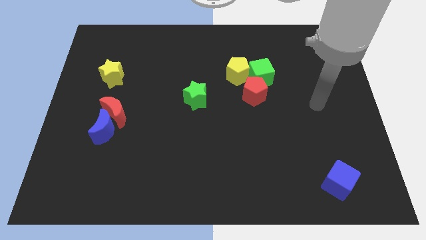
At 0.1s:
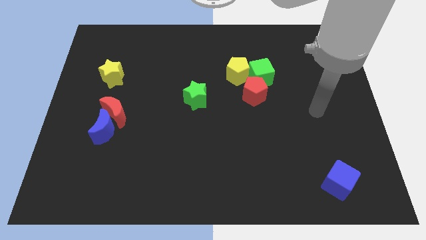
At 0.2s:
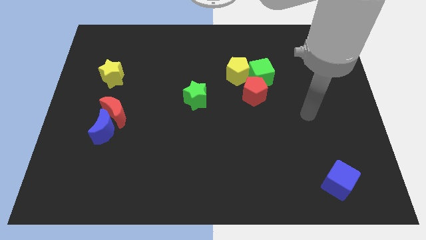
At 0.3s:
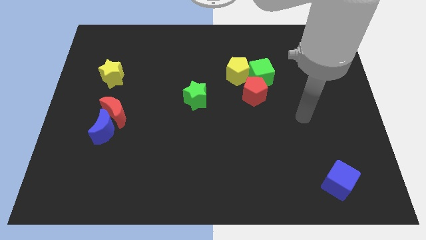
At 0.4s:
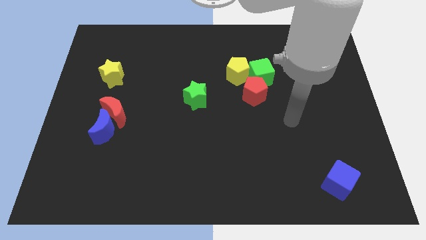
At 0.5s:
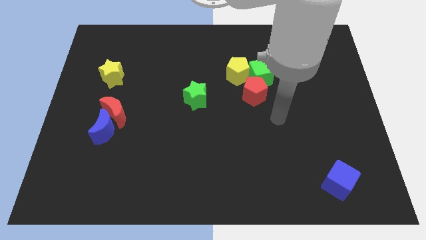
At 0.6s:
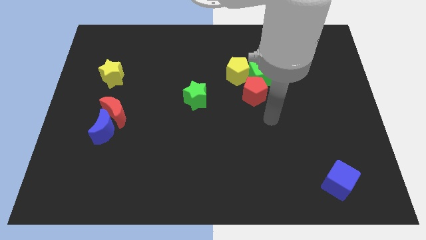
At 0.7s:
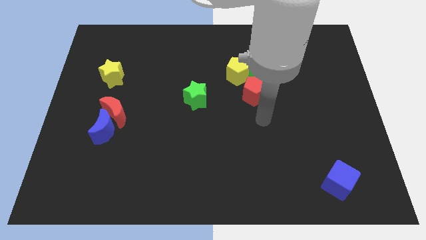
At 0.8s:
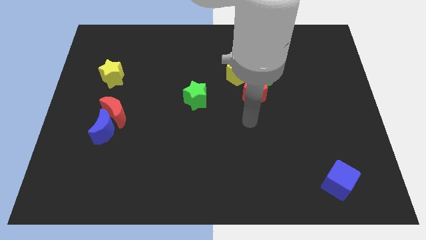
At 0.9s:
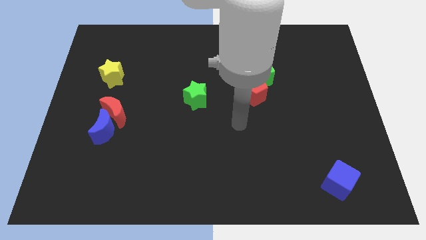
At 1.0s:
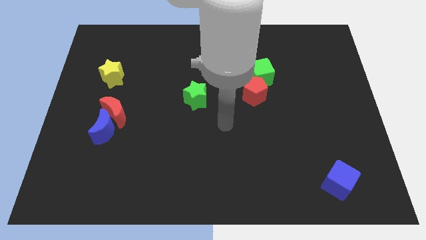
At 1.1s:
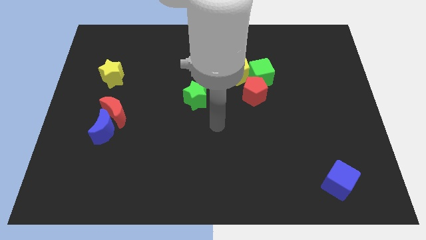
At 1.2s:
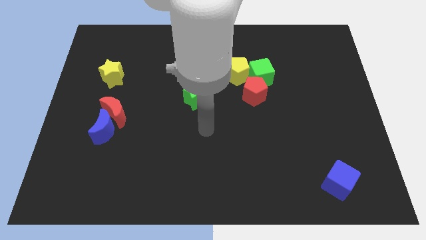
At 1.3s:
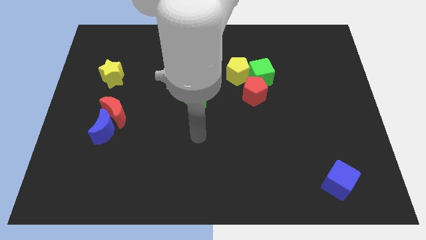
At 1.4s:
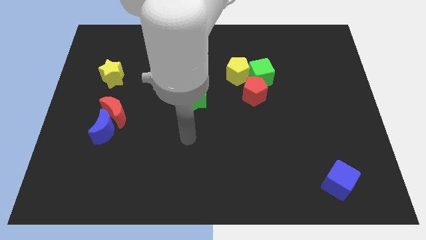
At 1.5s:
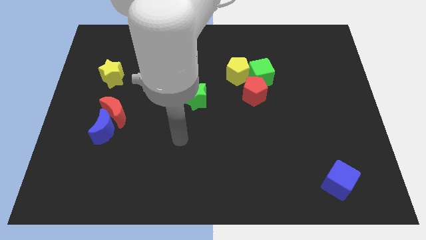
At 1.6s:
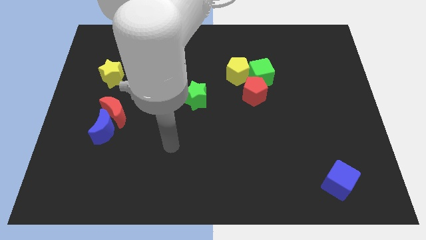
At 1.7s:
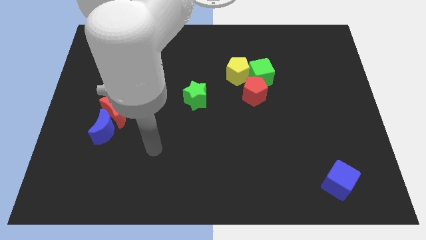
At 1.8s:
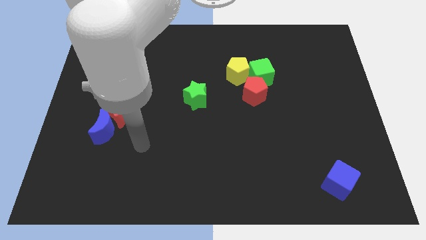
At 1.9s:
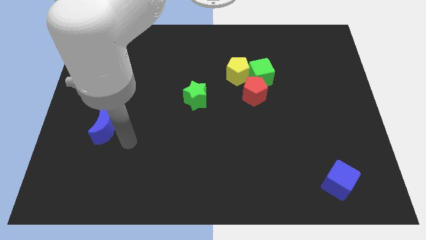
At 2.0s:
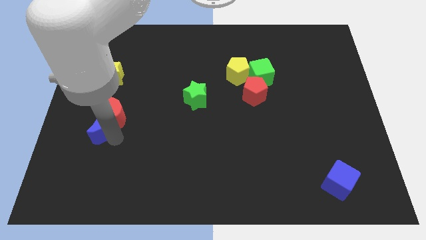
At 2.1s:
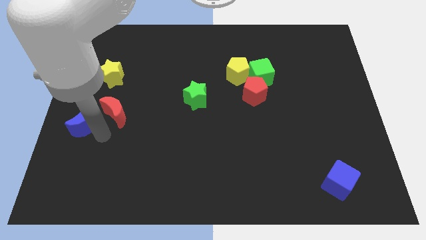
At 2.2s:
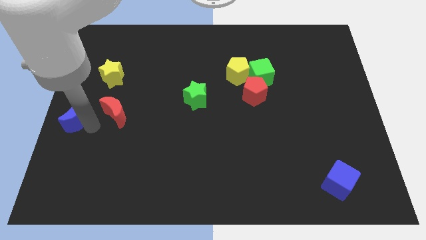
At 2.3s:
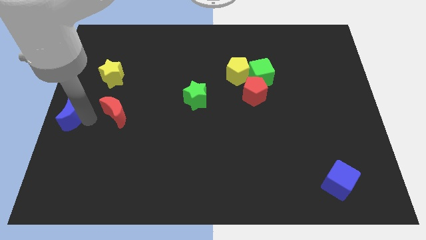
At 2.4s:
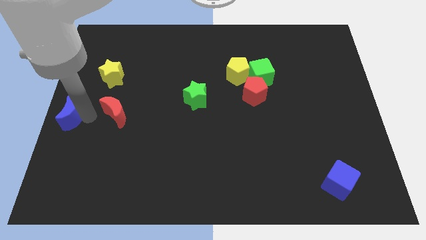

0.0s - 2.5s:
move the red moon away from the blue moon

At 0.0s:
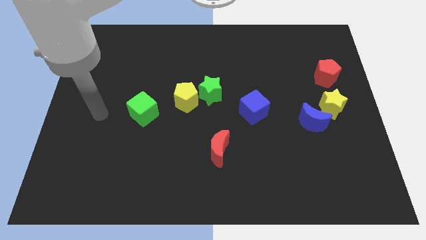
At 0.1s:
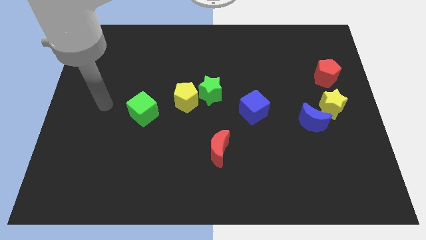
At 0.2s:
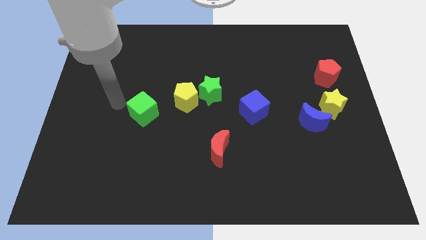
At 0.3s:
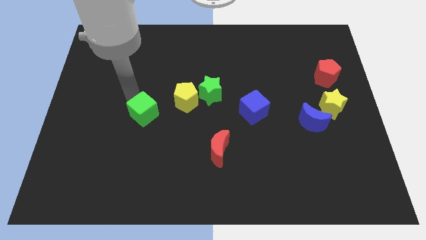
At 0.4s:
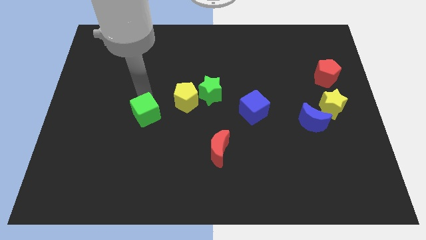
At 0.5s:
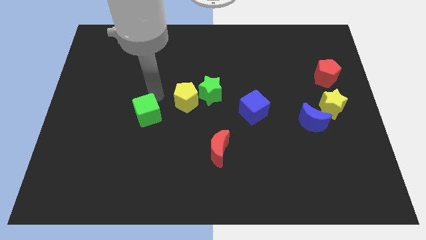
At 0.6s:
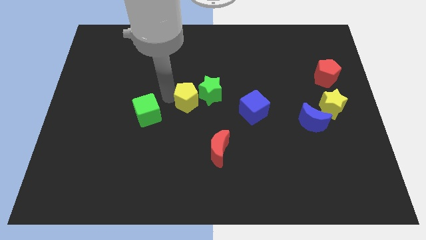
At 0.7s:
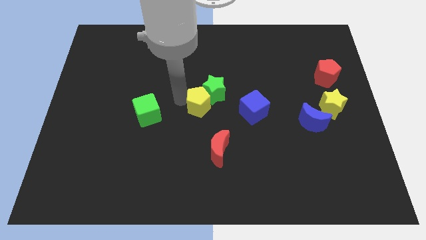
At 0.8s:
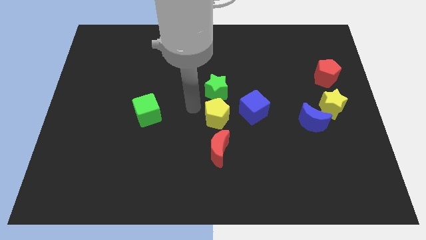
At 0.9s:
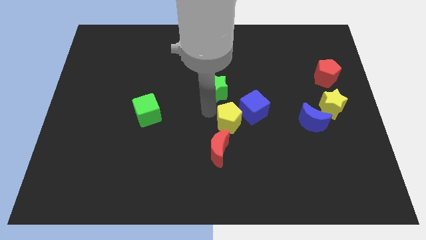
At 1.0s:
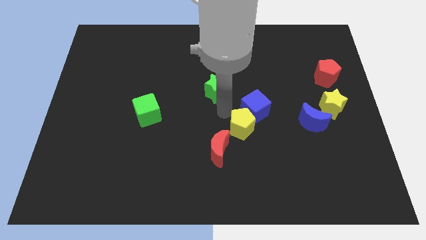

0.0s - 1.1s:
move the green star away from the yellow pentagon

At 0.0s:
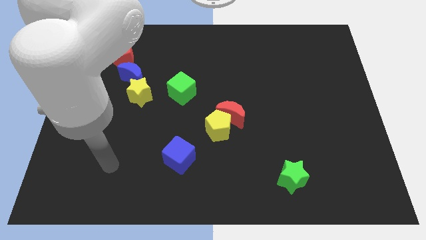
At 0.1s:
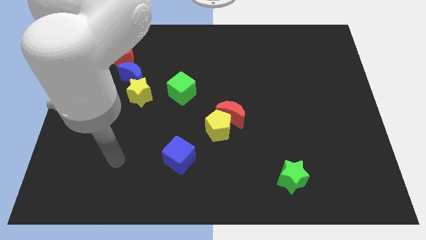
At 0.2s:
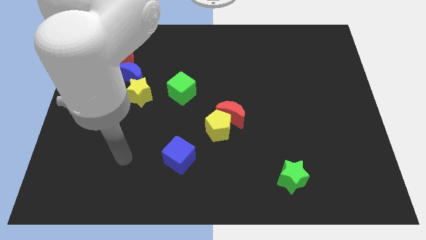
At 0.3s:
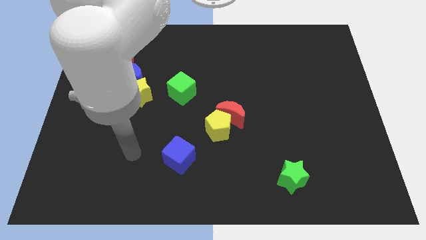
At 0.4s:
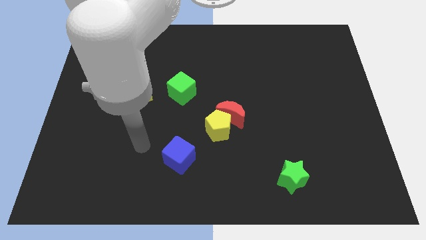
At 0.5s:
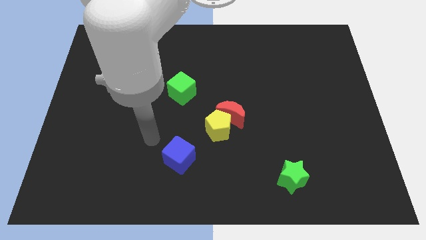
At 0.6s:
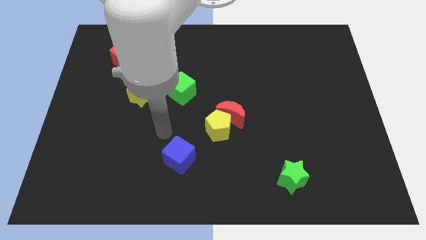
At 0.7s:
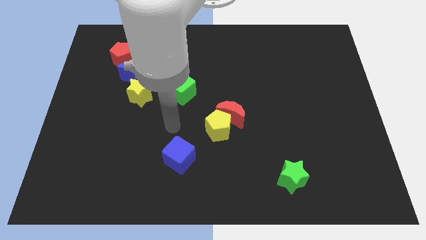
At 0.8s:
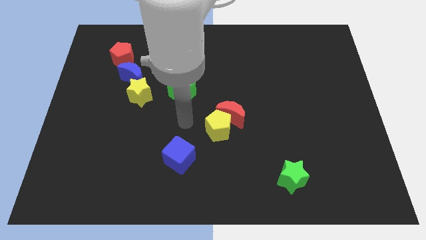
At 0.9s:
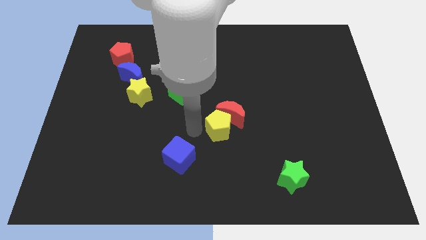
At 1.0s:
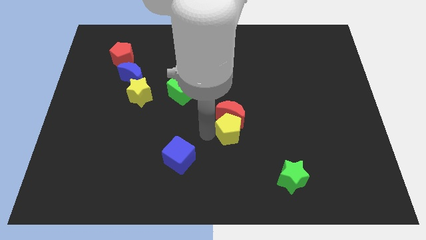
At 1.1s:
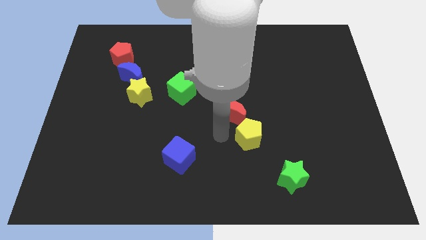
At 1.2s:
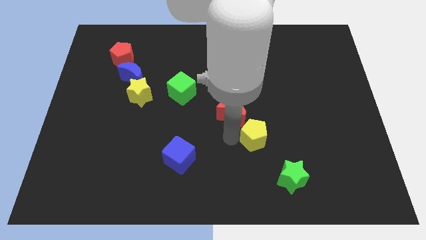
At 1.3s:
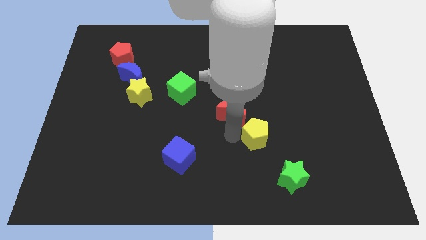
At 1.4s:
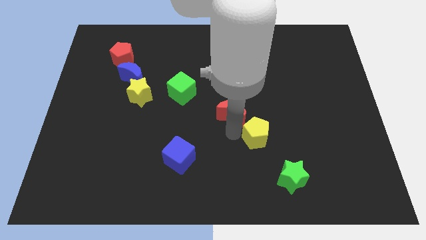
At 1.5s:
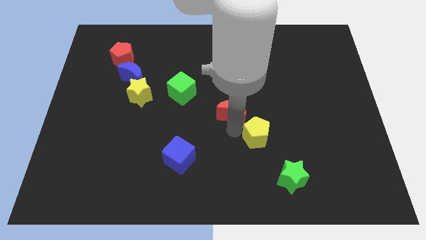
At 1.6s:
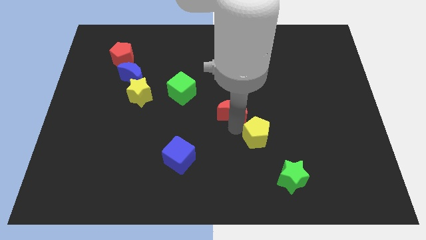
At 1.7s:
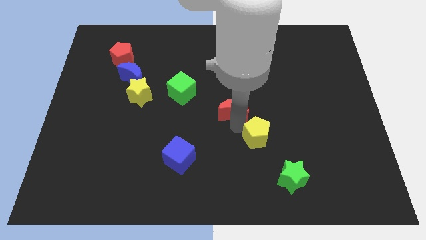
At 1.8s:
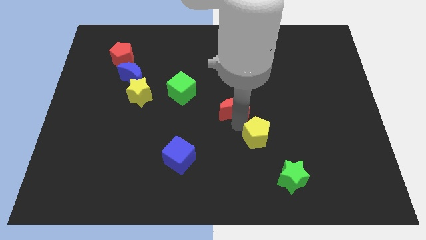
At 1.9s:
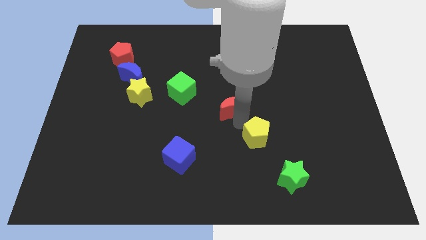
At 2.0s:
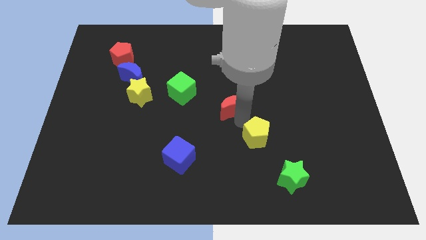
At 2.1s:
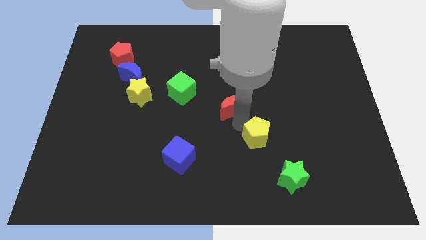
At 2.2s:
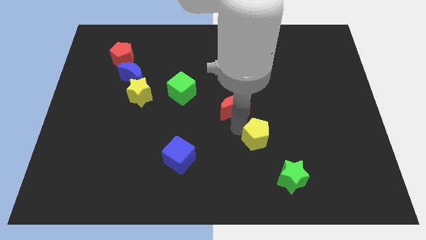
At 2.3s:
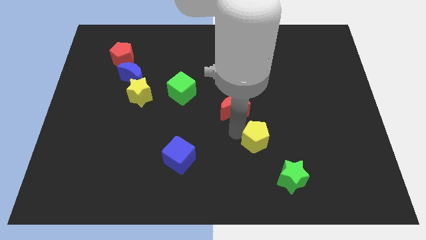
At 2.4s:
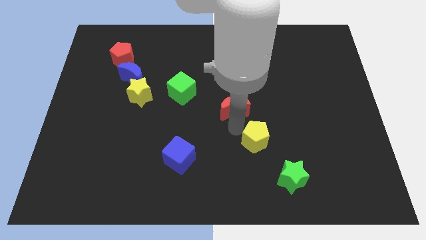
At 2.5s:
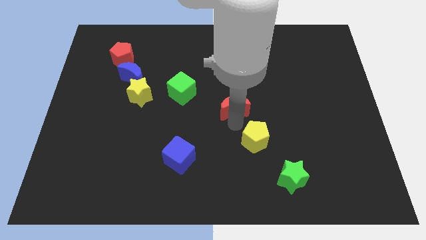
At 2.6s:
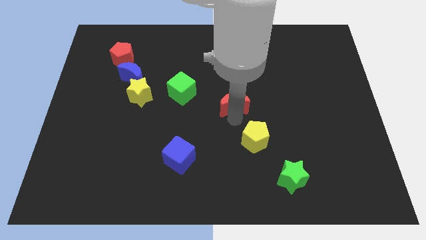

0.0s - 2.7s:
pull the red moon apart from the yellow pentagon

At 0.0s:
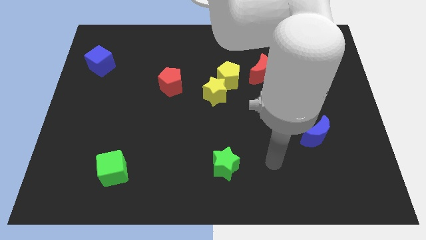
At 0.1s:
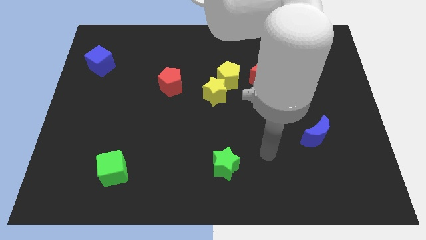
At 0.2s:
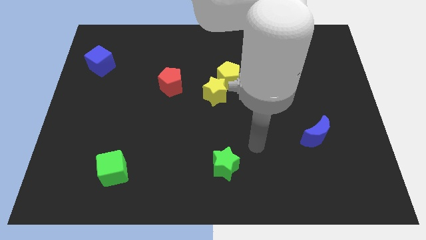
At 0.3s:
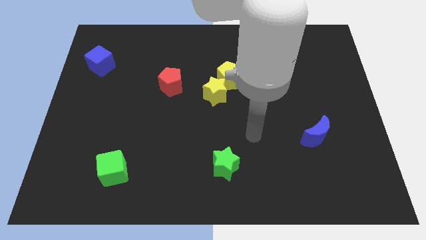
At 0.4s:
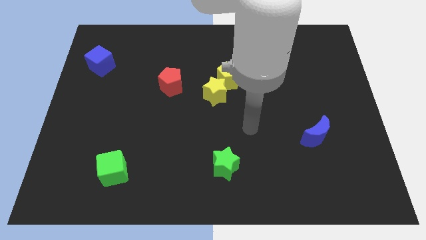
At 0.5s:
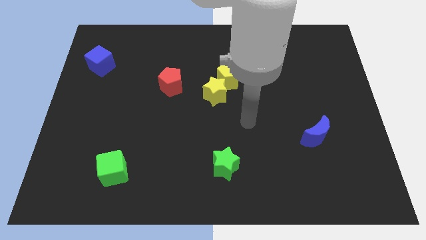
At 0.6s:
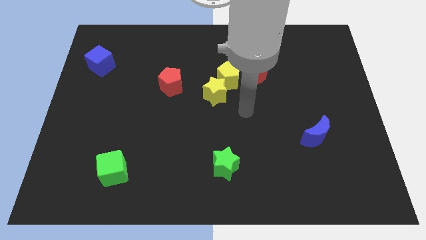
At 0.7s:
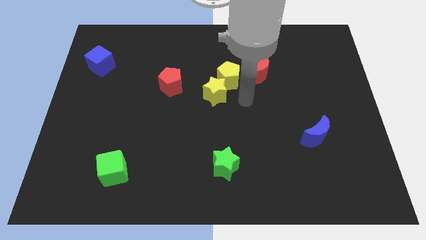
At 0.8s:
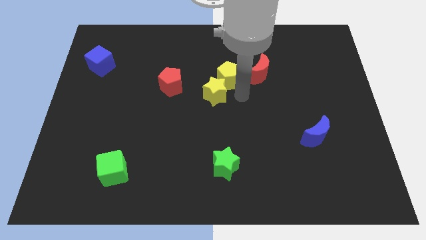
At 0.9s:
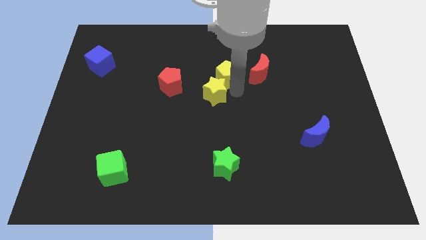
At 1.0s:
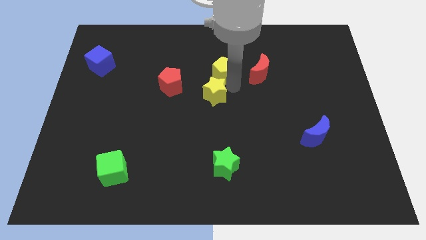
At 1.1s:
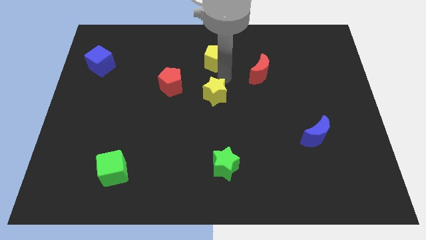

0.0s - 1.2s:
pull the yellow star apart from the yellow pentagon

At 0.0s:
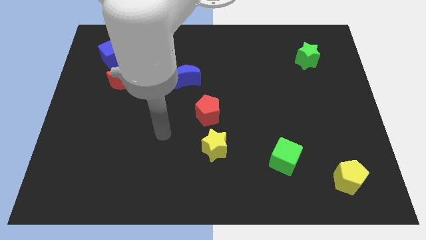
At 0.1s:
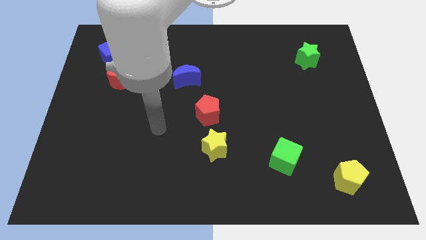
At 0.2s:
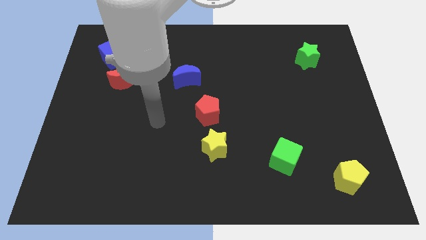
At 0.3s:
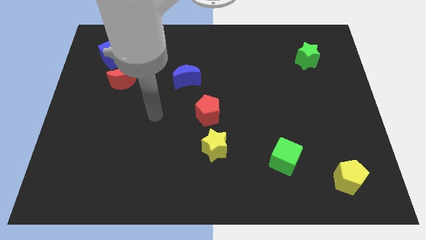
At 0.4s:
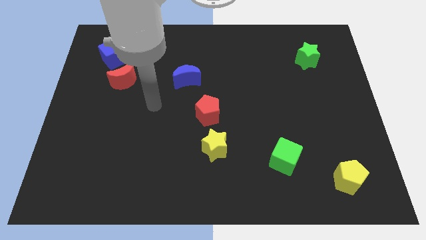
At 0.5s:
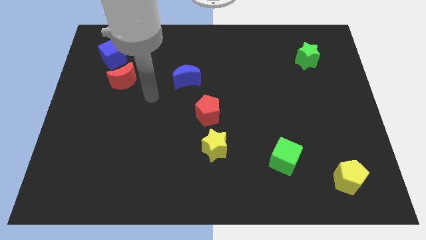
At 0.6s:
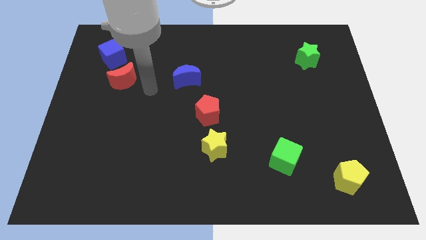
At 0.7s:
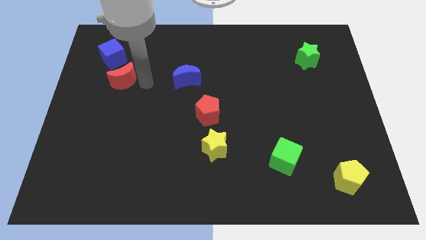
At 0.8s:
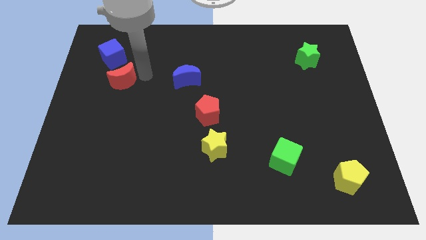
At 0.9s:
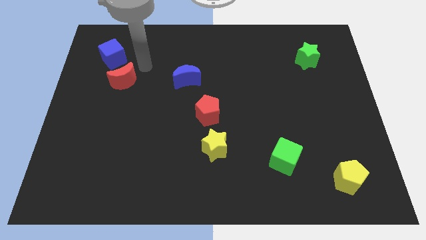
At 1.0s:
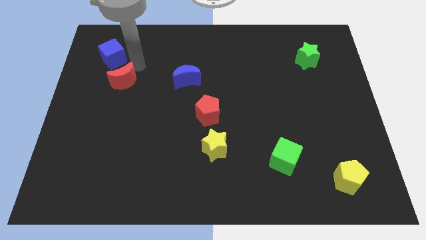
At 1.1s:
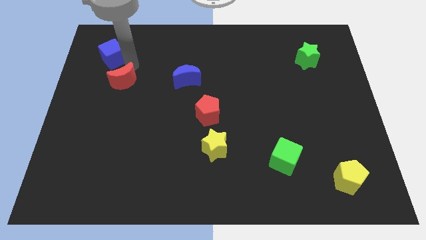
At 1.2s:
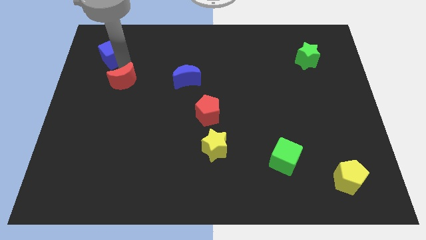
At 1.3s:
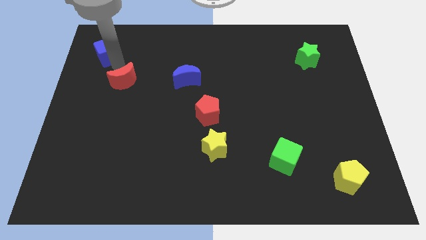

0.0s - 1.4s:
move the red moon away from the blue cube

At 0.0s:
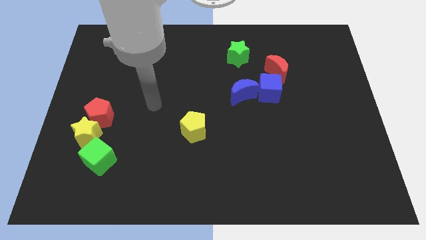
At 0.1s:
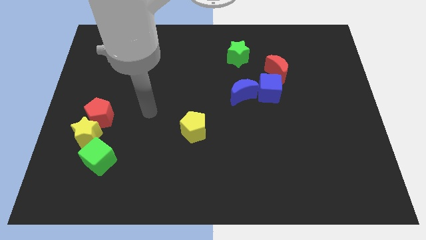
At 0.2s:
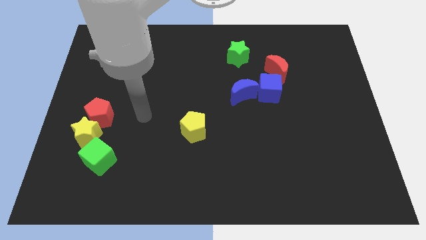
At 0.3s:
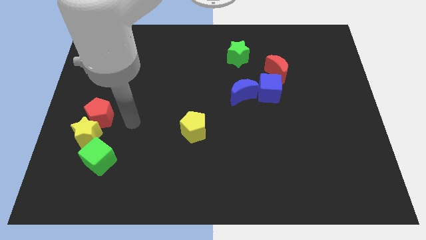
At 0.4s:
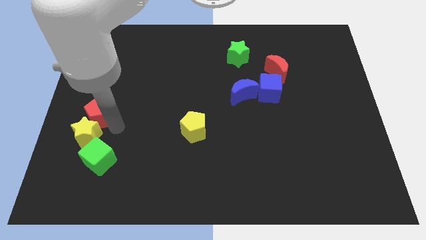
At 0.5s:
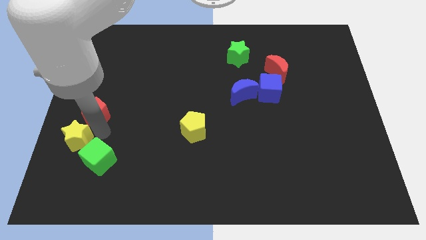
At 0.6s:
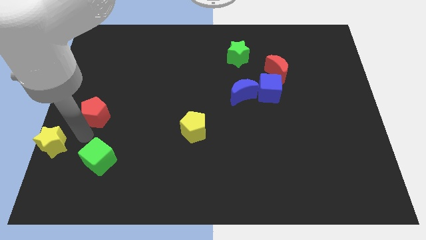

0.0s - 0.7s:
pull the red pentagon apart from the yellow star
